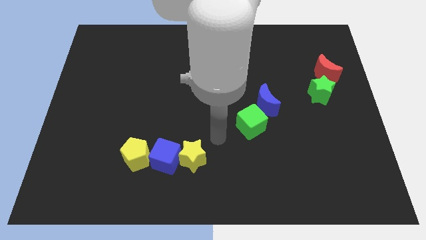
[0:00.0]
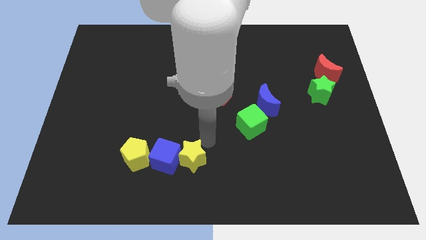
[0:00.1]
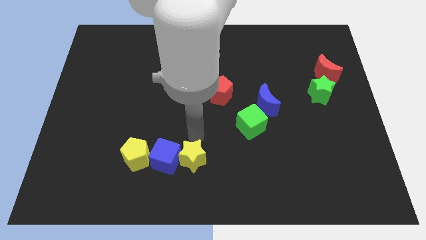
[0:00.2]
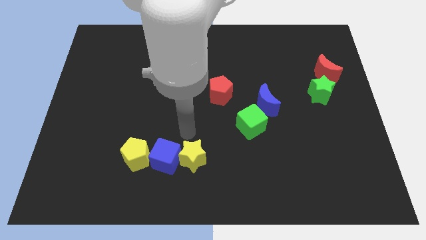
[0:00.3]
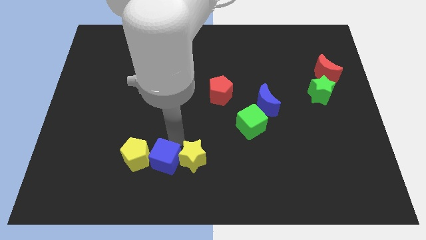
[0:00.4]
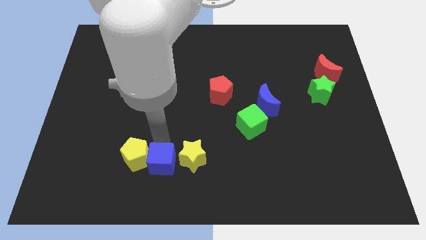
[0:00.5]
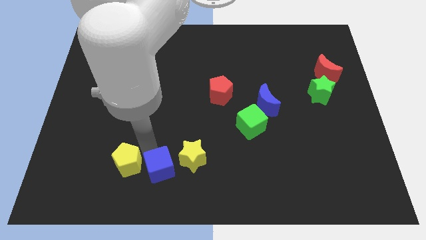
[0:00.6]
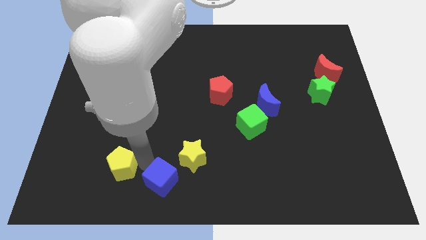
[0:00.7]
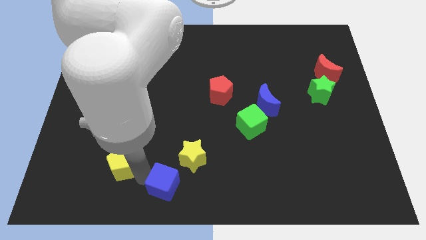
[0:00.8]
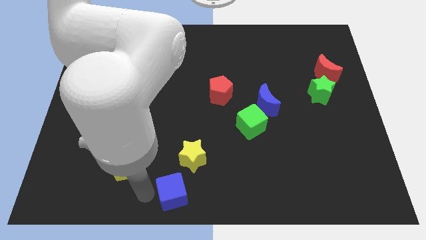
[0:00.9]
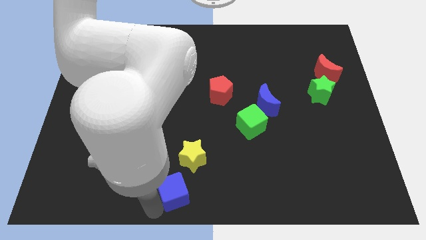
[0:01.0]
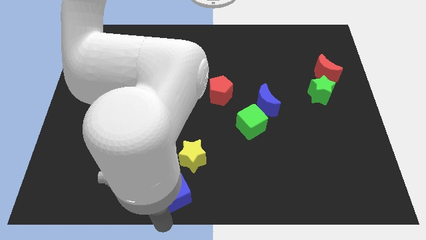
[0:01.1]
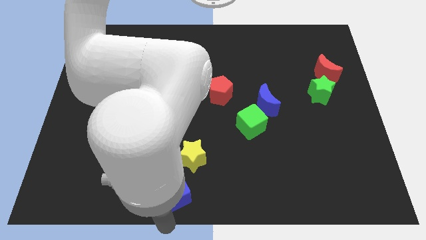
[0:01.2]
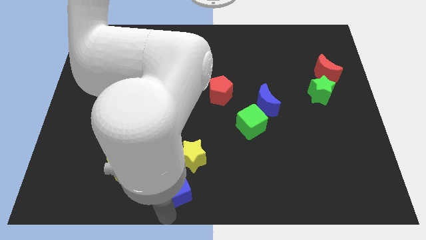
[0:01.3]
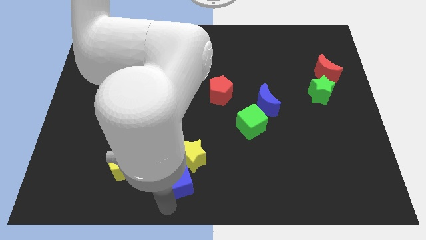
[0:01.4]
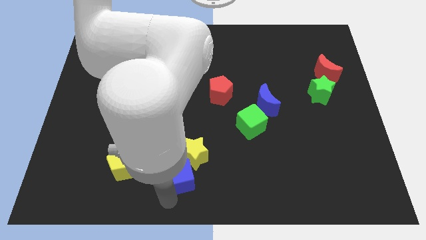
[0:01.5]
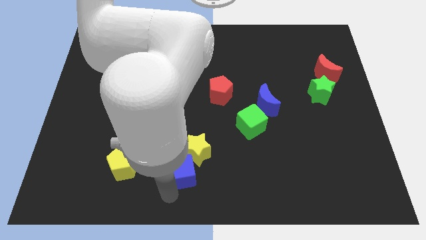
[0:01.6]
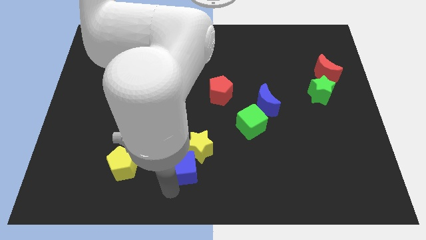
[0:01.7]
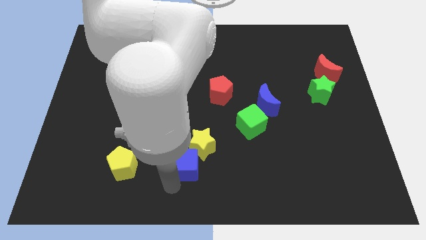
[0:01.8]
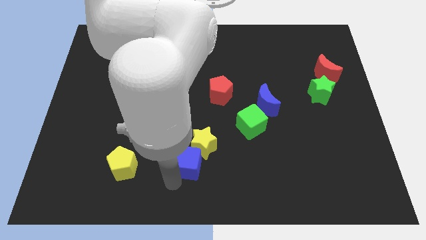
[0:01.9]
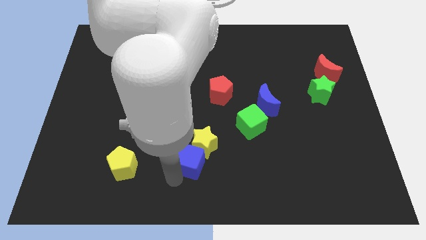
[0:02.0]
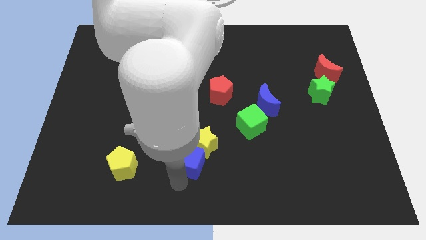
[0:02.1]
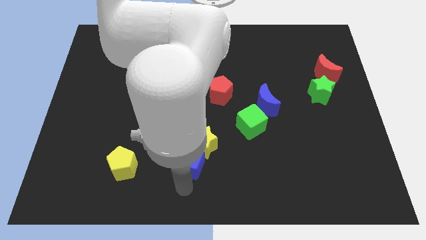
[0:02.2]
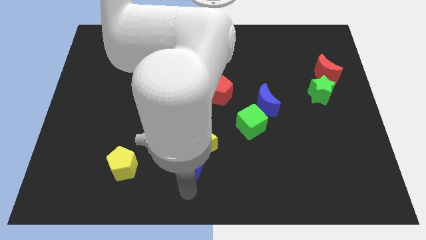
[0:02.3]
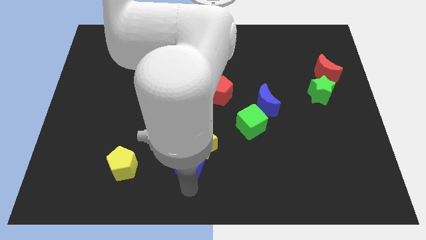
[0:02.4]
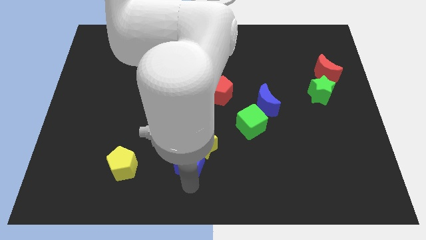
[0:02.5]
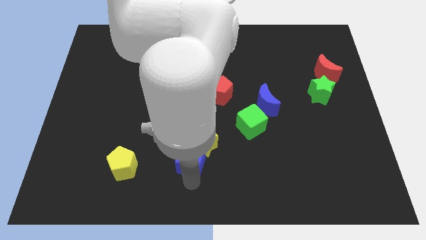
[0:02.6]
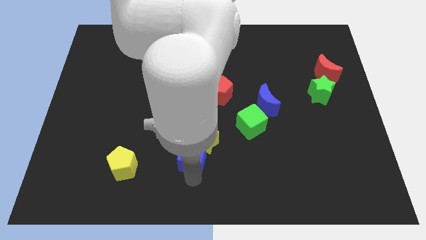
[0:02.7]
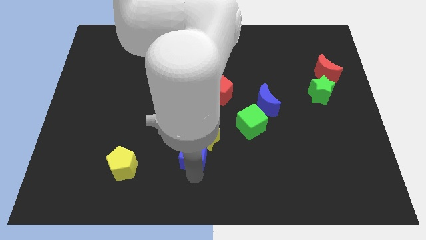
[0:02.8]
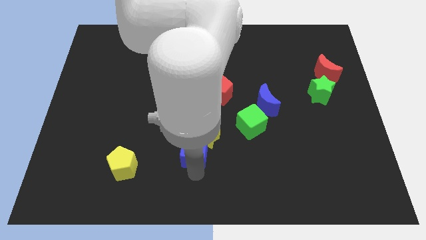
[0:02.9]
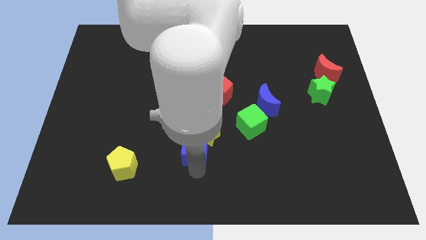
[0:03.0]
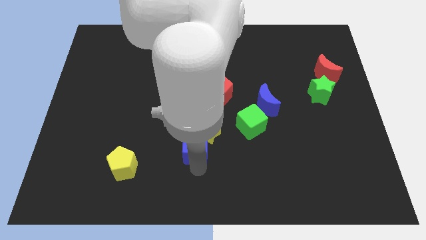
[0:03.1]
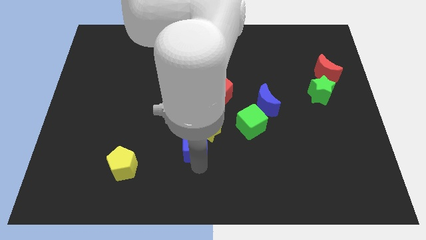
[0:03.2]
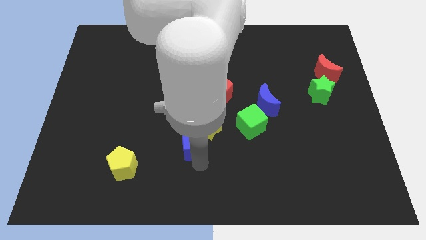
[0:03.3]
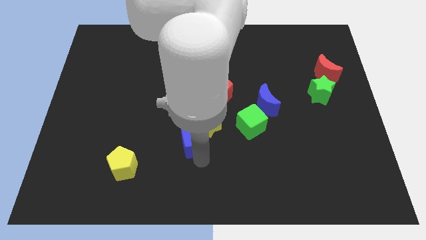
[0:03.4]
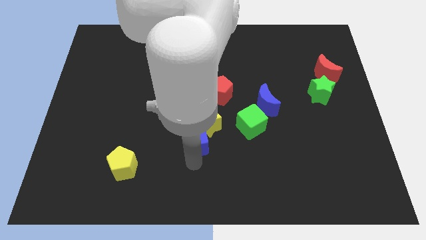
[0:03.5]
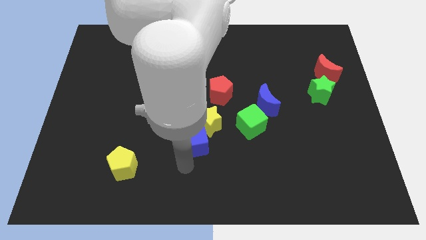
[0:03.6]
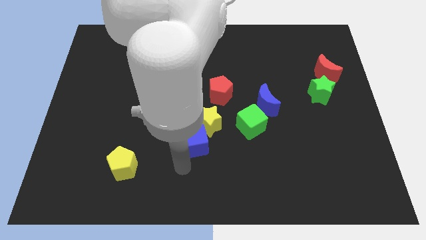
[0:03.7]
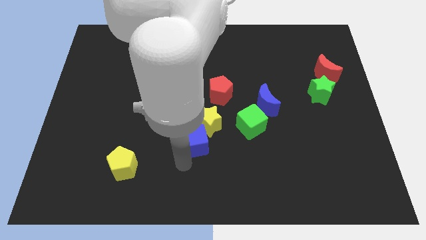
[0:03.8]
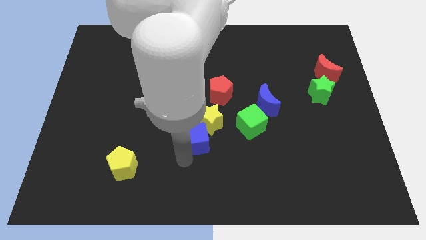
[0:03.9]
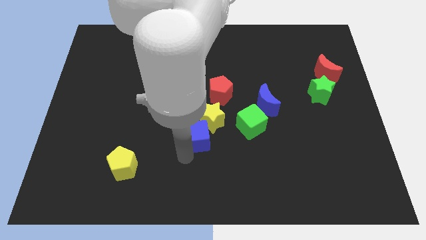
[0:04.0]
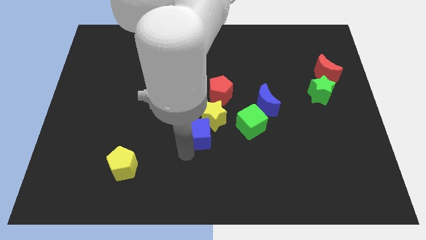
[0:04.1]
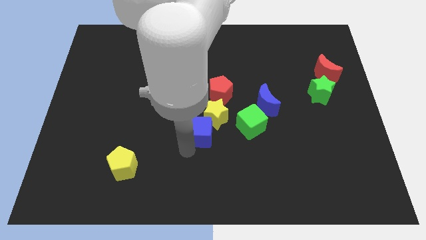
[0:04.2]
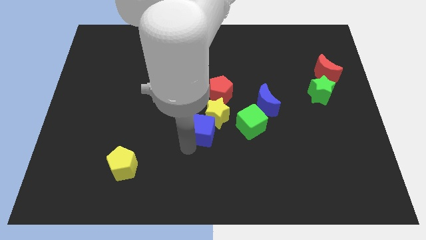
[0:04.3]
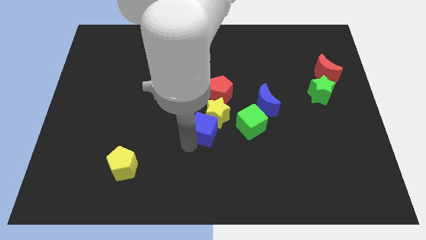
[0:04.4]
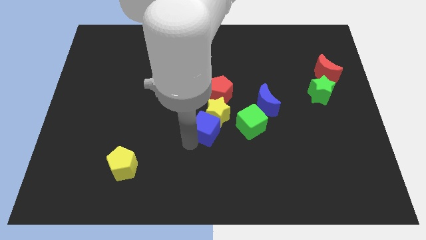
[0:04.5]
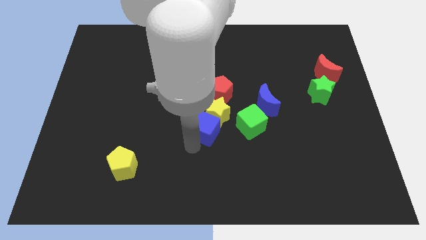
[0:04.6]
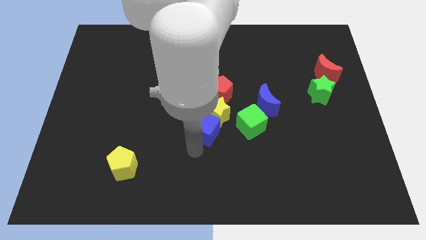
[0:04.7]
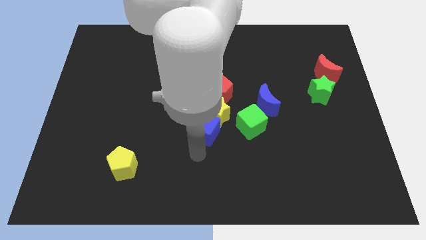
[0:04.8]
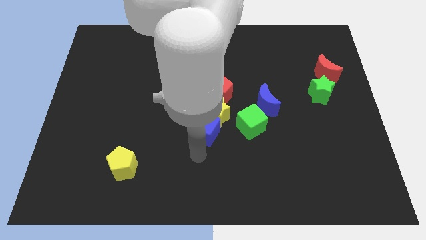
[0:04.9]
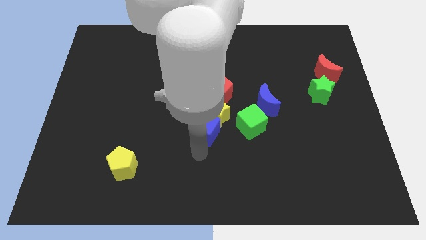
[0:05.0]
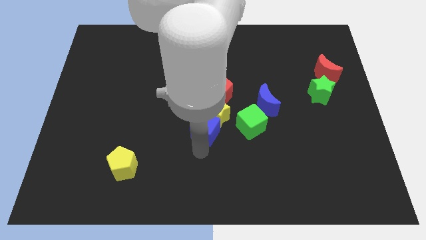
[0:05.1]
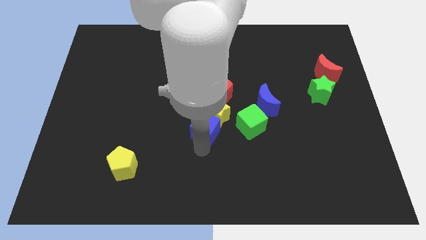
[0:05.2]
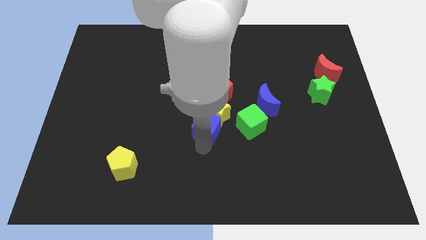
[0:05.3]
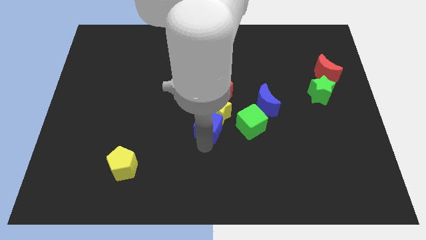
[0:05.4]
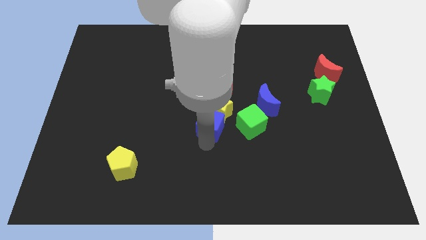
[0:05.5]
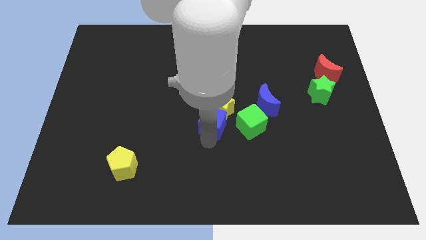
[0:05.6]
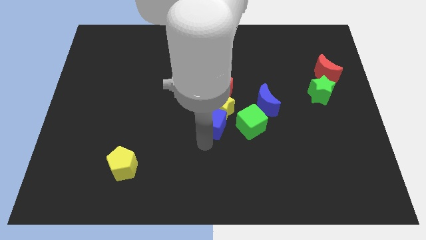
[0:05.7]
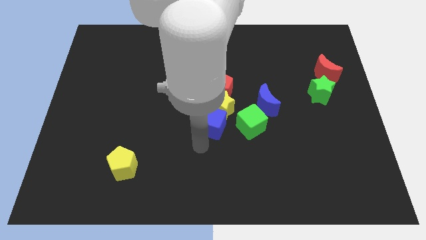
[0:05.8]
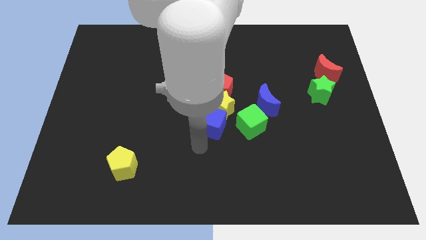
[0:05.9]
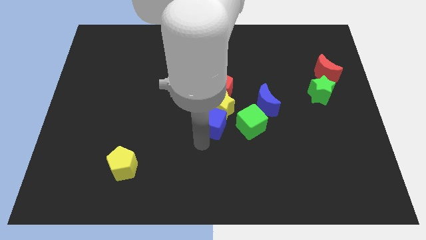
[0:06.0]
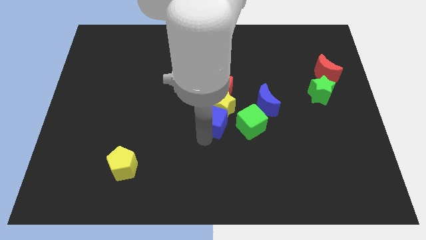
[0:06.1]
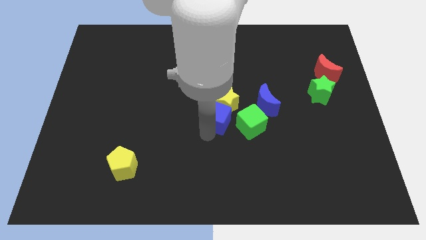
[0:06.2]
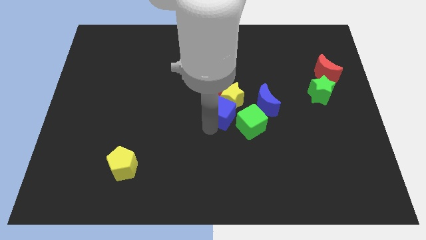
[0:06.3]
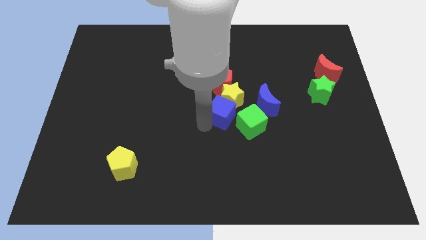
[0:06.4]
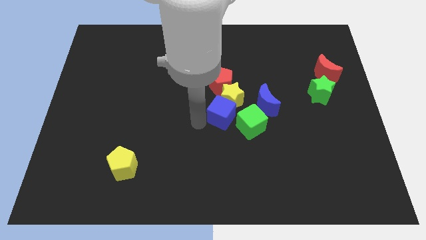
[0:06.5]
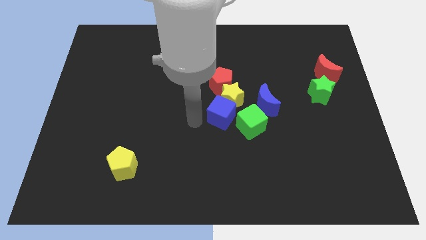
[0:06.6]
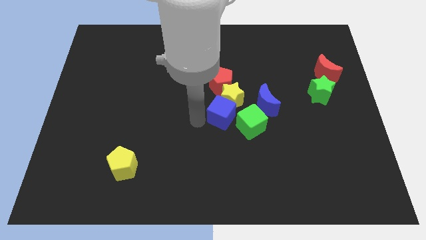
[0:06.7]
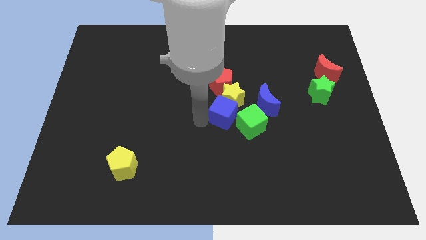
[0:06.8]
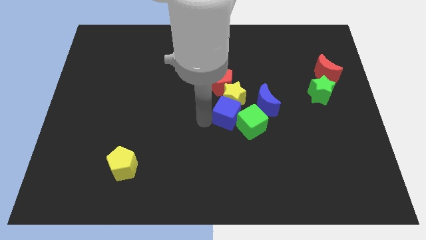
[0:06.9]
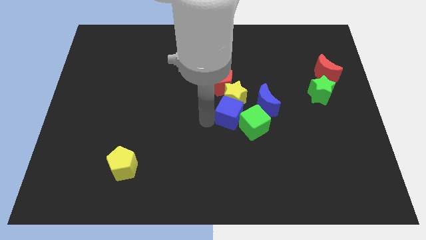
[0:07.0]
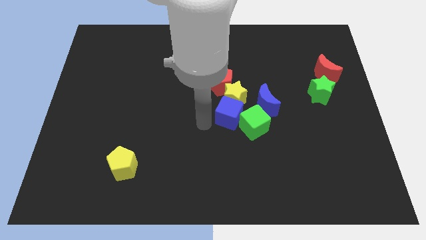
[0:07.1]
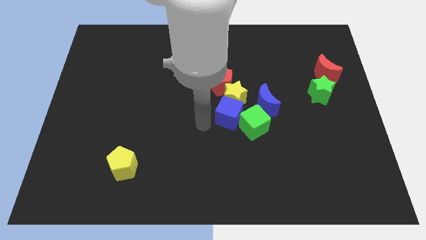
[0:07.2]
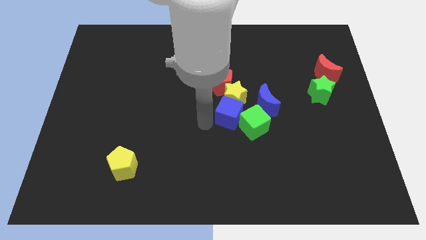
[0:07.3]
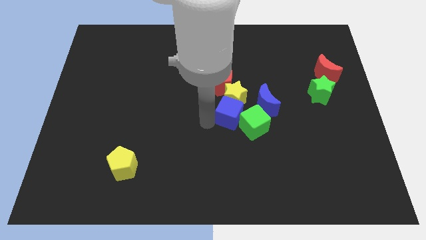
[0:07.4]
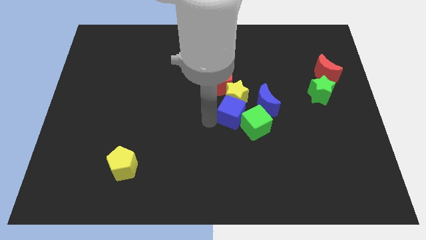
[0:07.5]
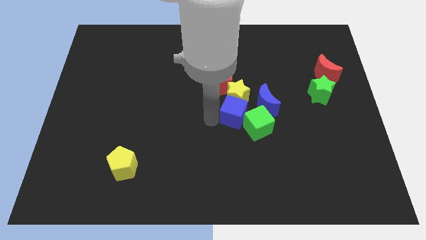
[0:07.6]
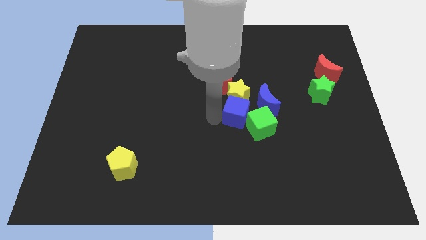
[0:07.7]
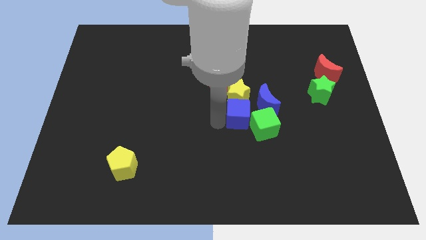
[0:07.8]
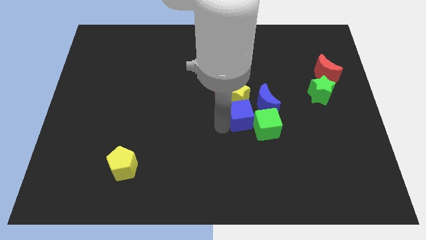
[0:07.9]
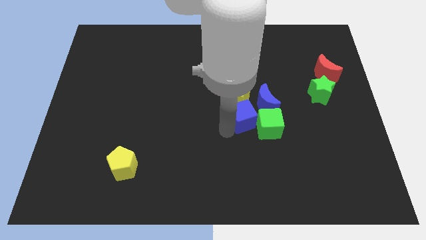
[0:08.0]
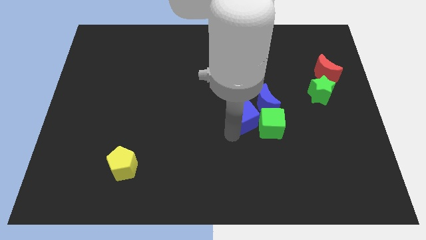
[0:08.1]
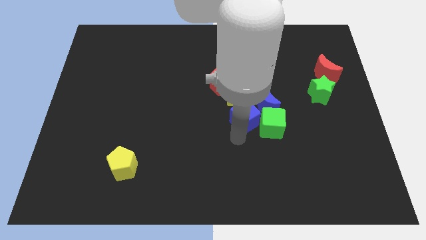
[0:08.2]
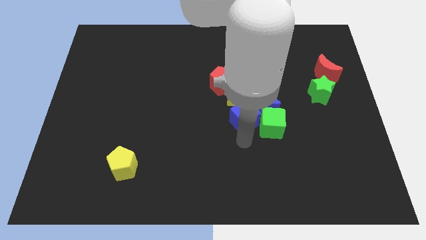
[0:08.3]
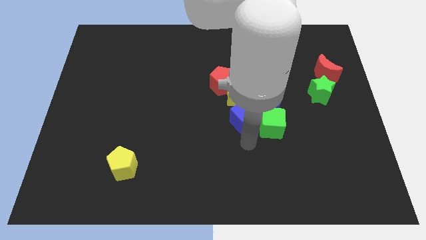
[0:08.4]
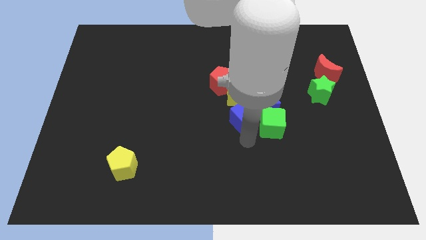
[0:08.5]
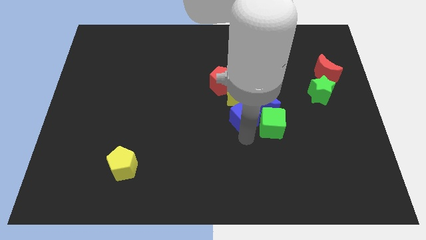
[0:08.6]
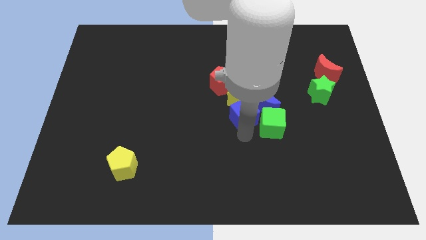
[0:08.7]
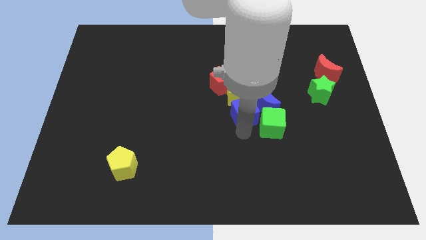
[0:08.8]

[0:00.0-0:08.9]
slide the blue cube upwards and then right
